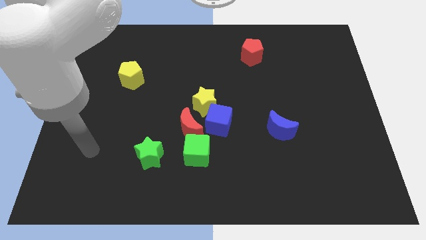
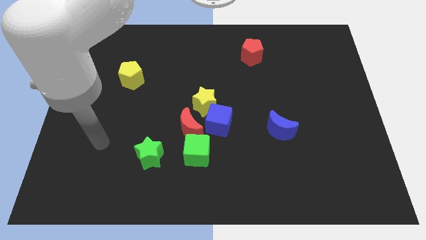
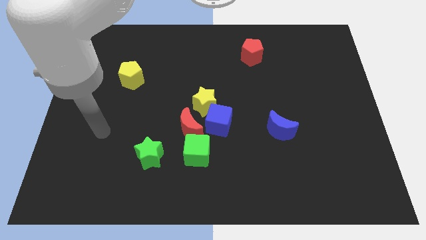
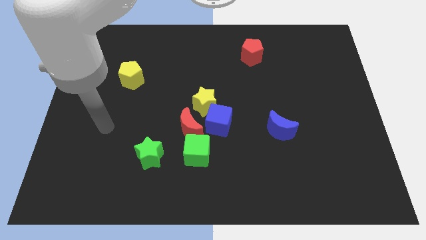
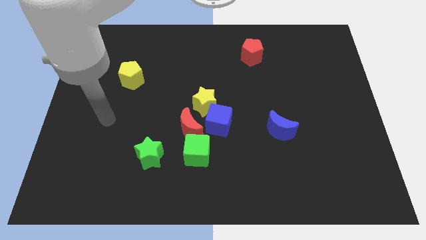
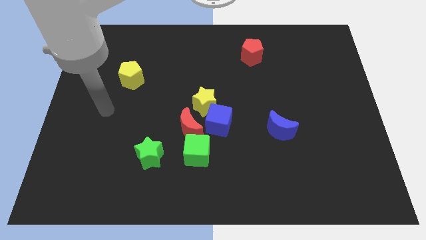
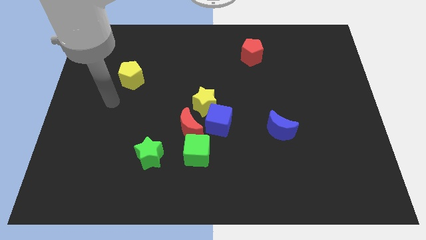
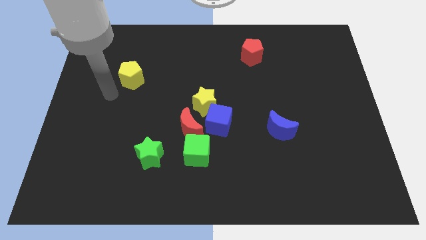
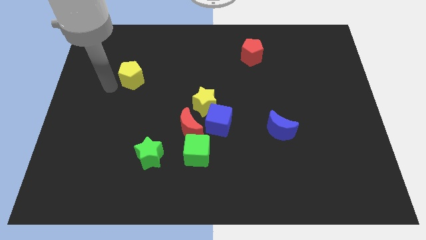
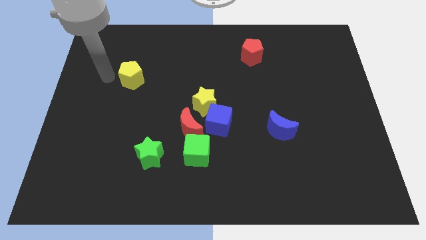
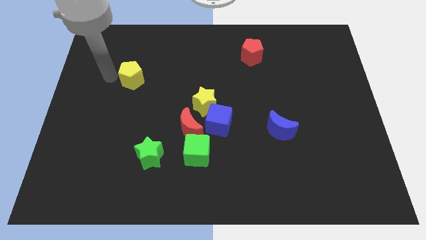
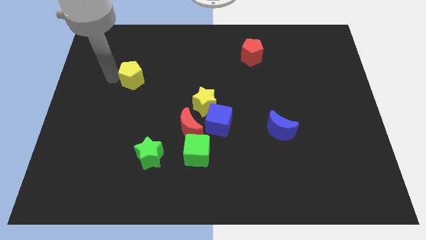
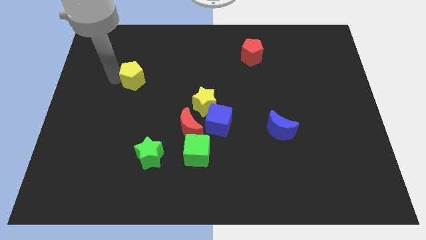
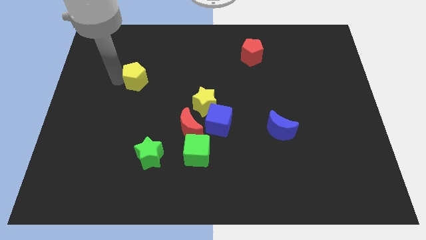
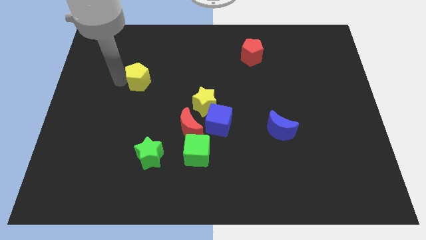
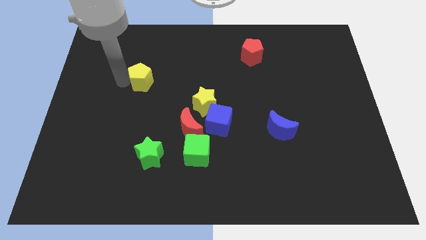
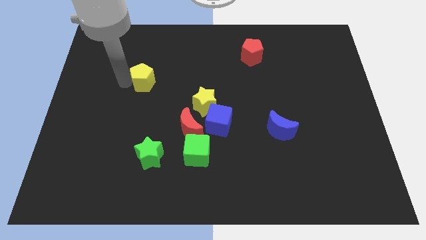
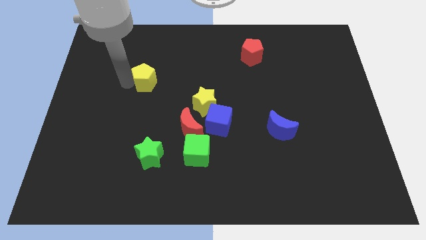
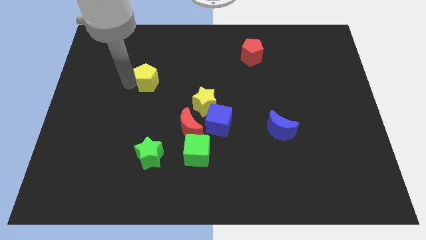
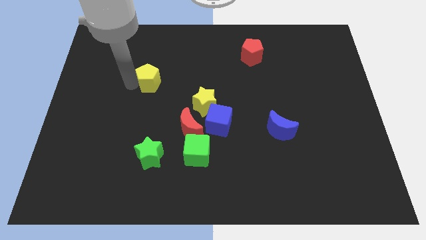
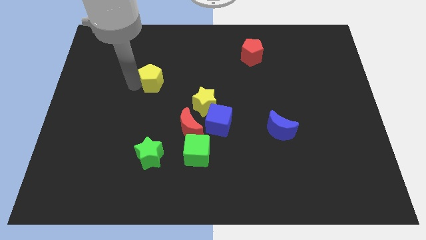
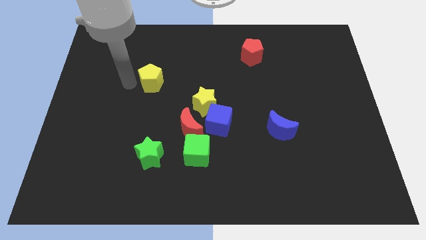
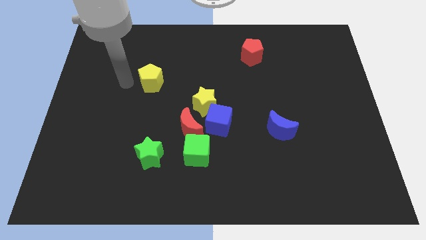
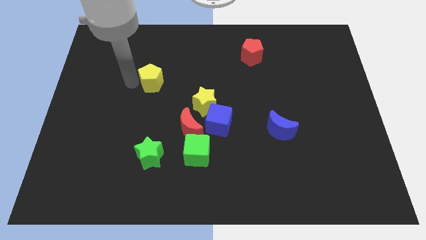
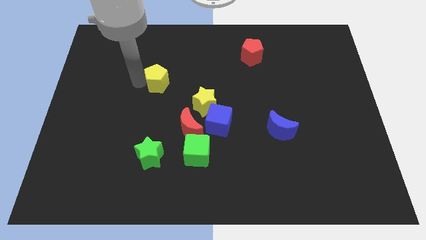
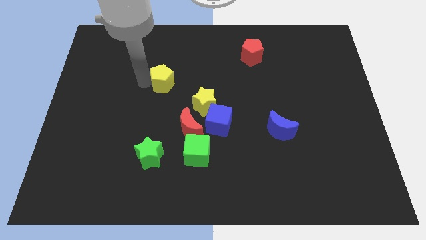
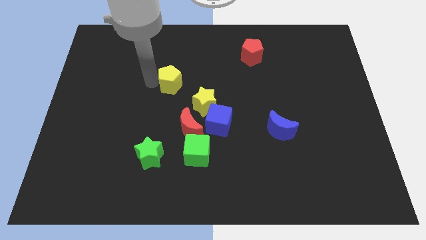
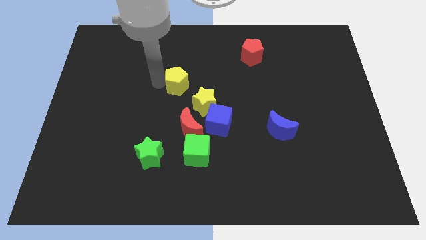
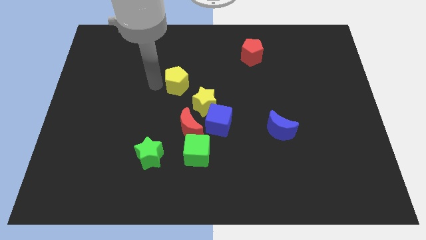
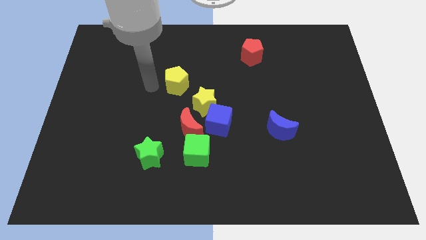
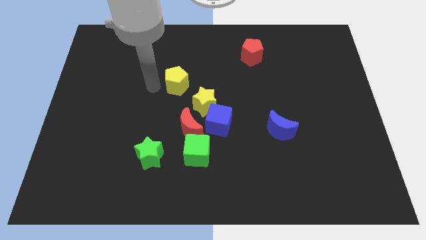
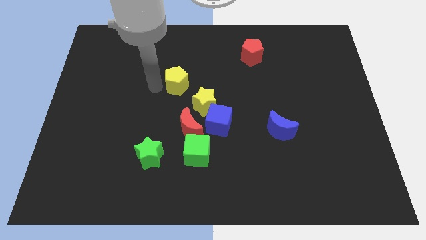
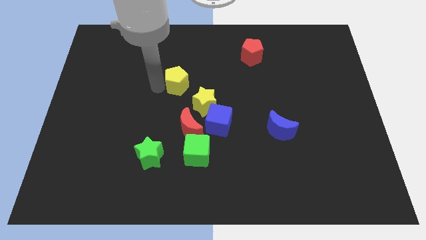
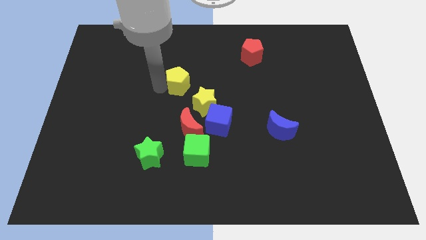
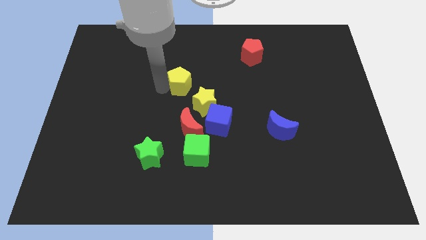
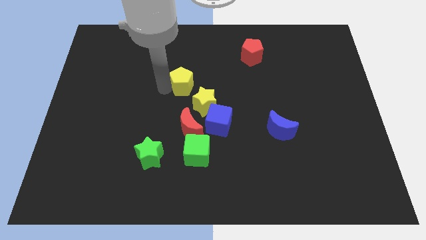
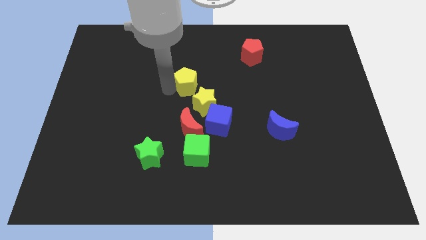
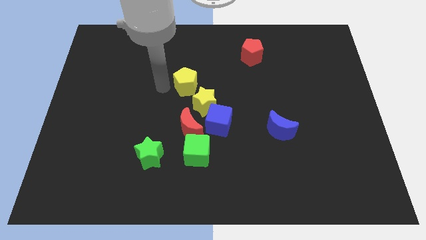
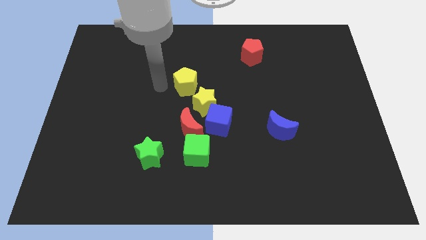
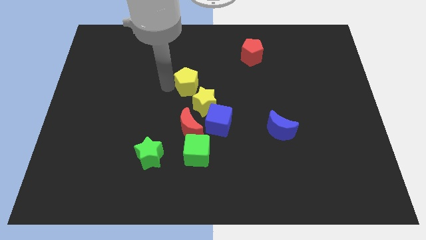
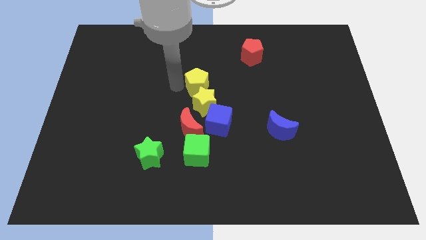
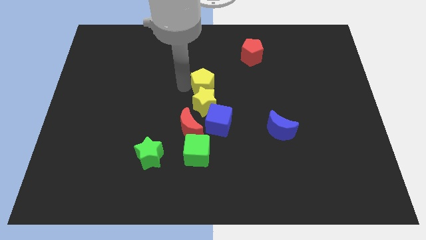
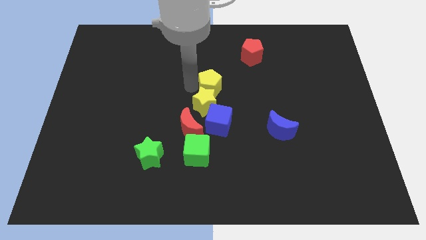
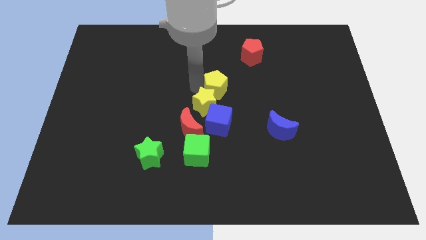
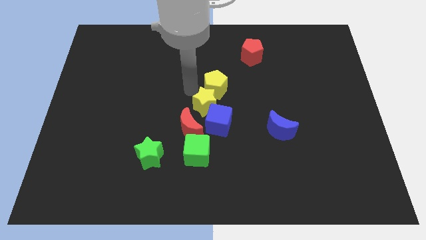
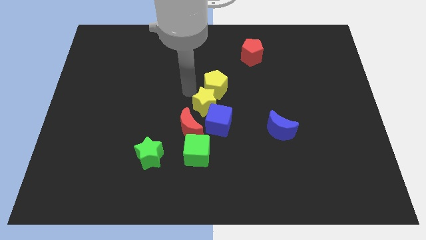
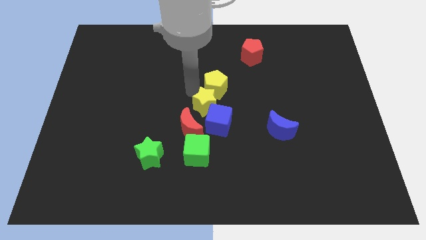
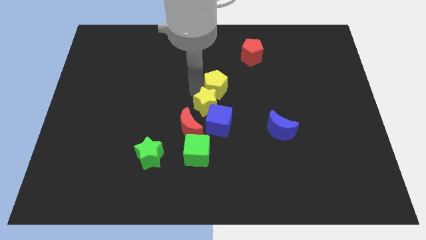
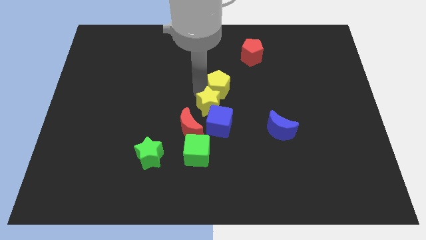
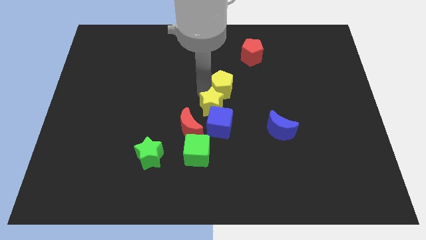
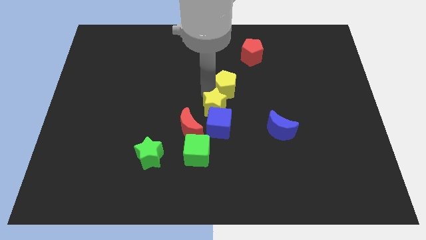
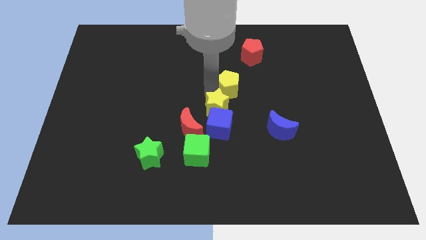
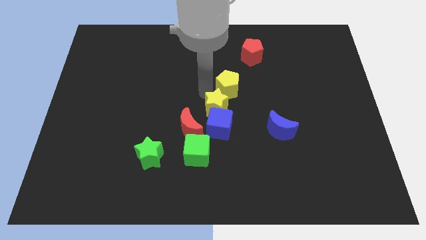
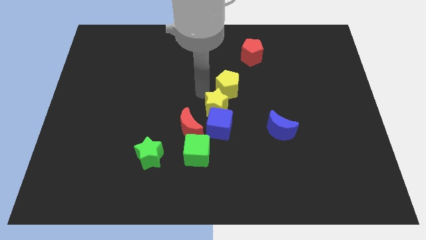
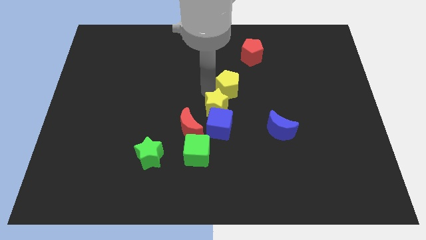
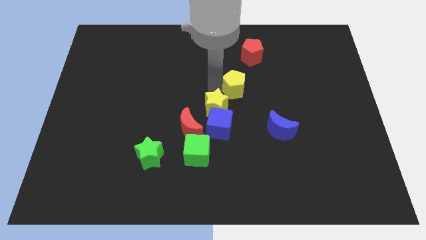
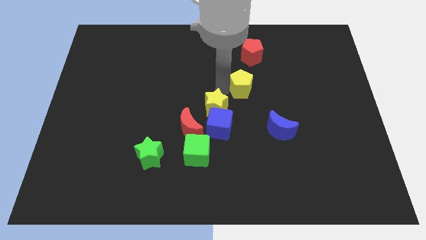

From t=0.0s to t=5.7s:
put the yellow pentagon to the bottom side of the red pentagon

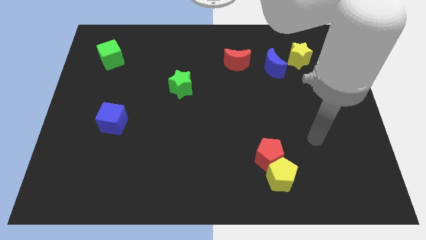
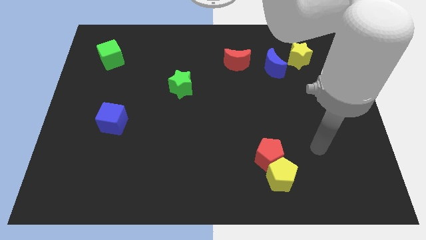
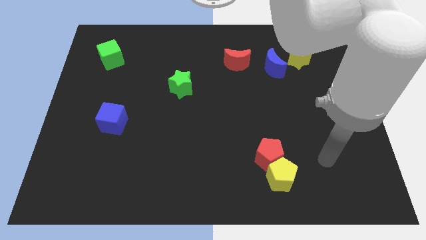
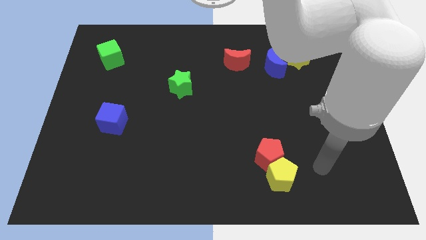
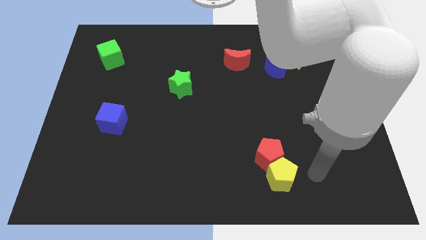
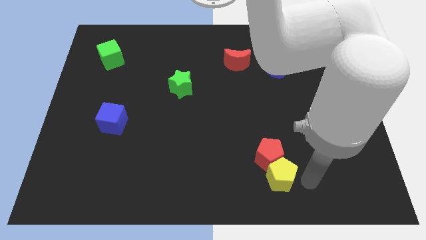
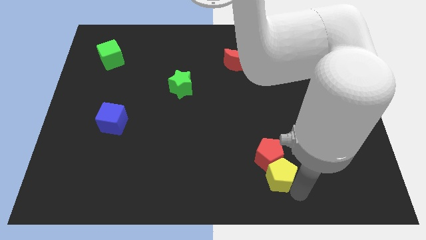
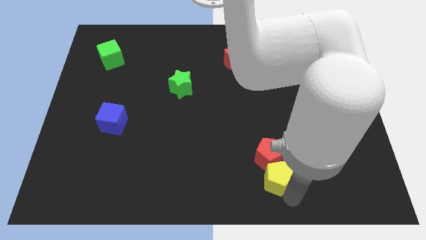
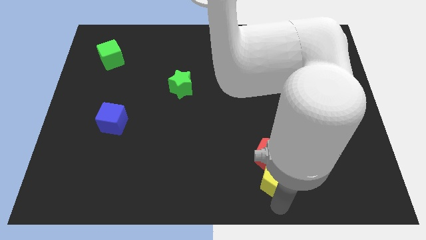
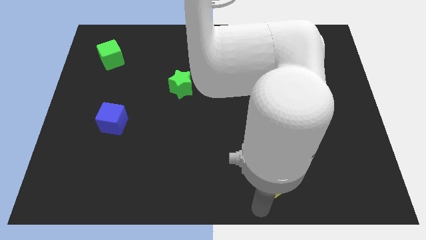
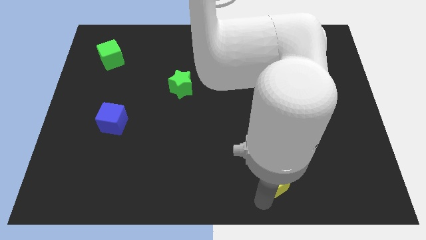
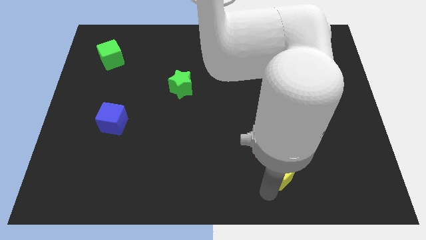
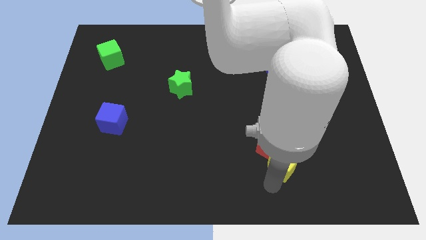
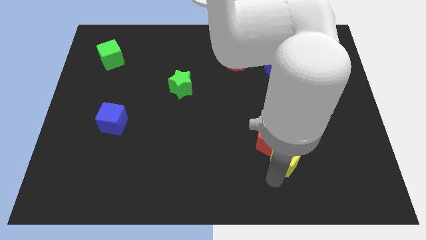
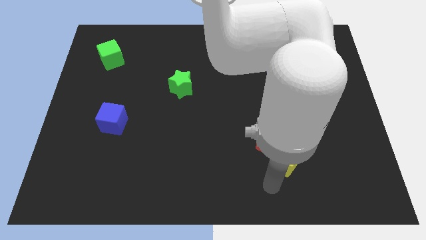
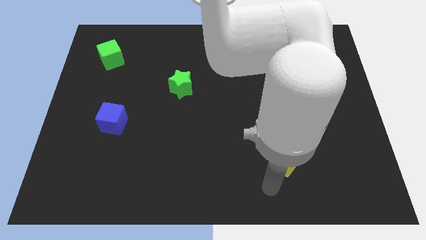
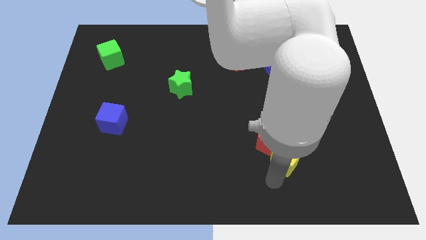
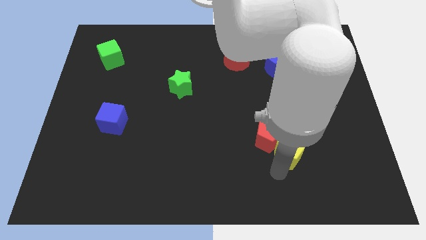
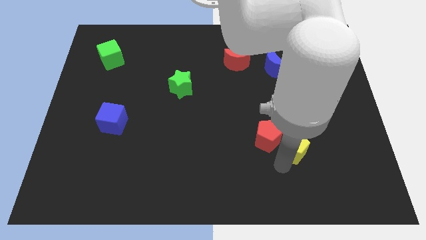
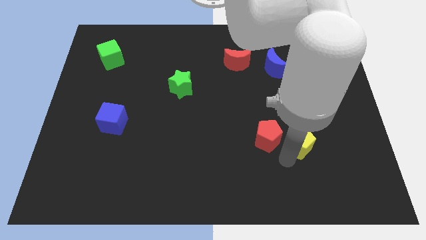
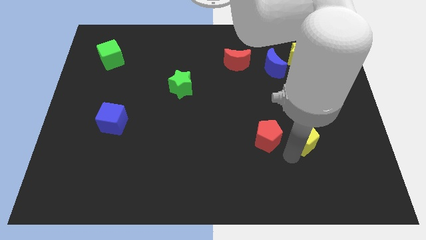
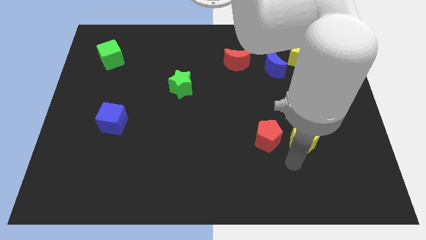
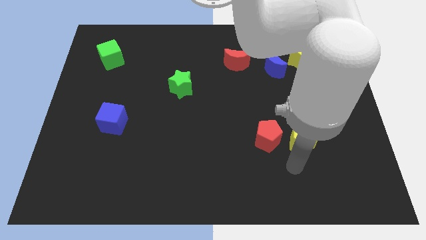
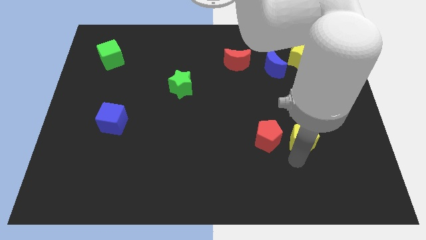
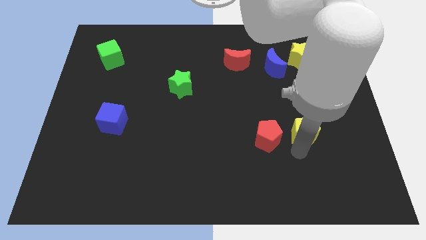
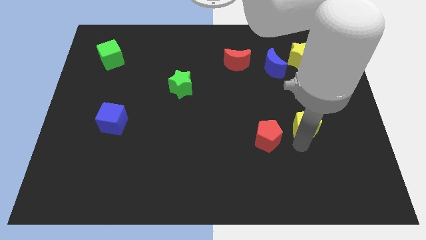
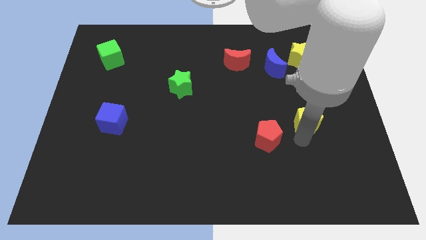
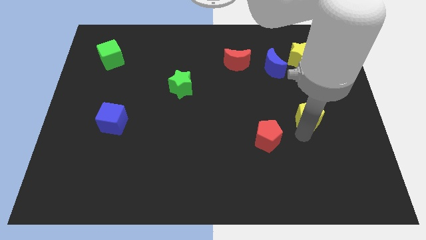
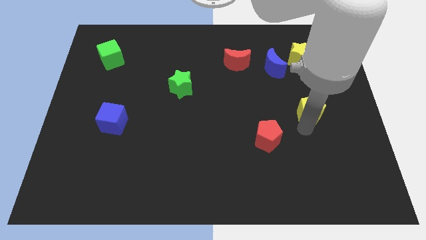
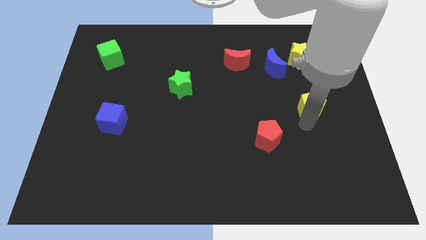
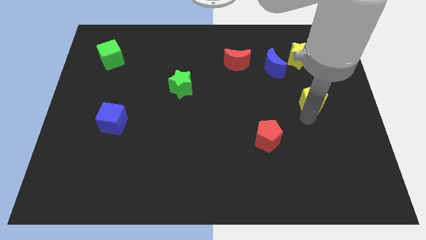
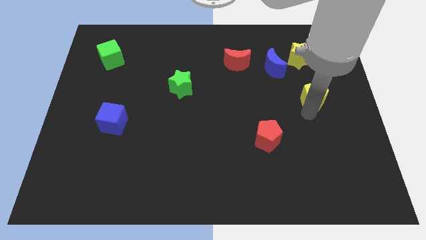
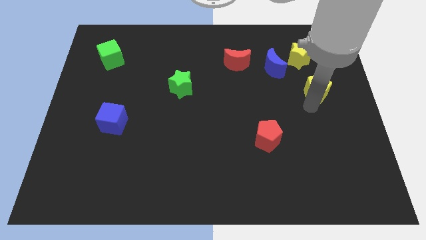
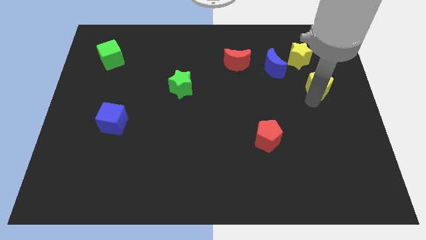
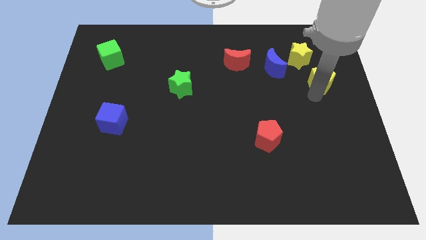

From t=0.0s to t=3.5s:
put the yellow pentagon diagonally down and to the right of the yellow star
